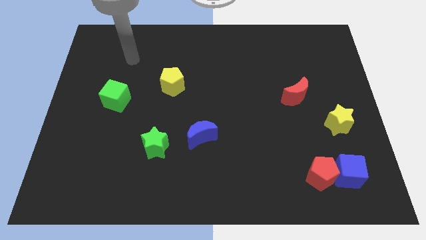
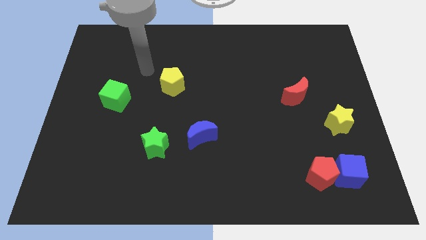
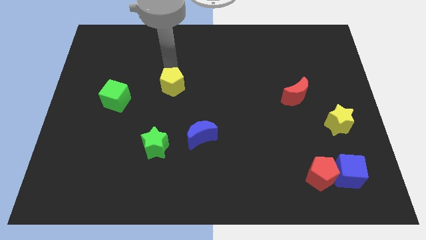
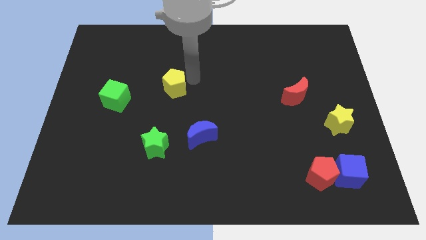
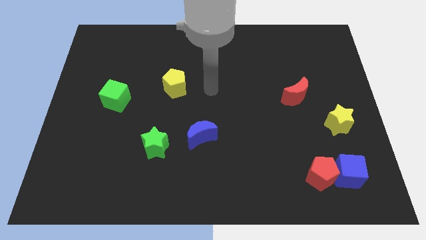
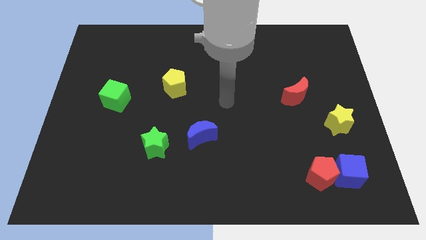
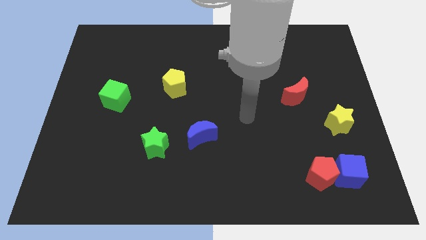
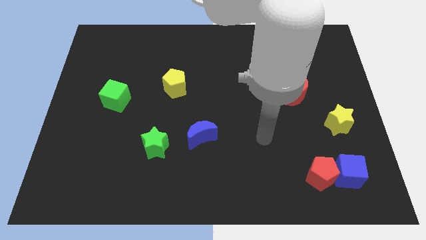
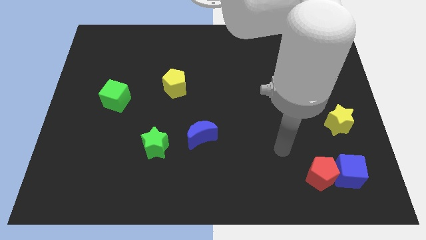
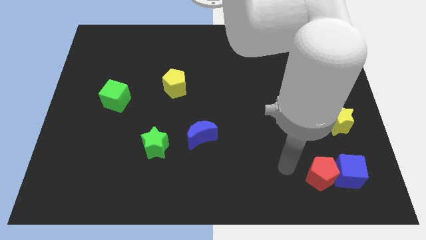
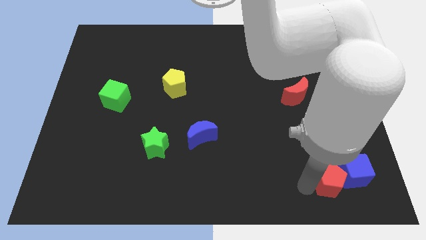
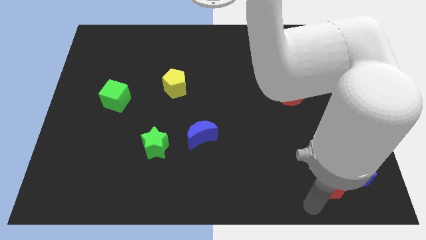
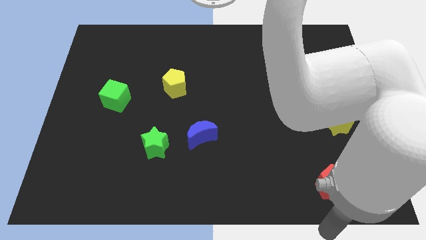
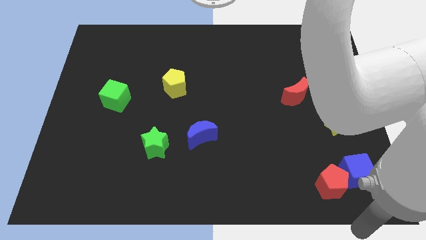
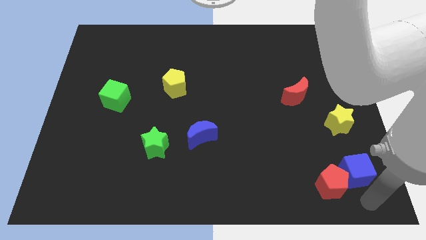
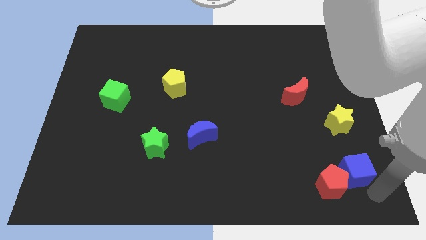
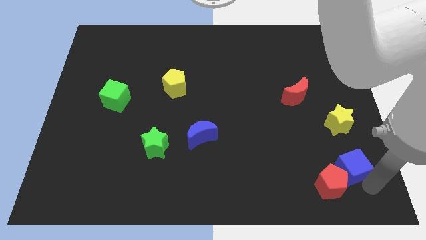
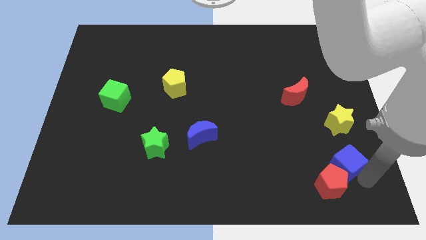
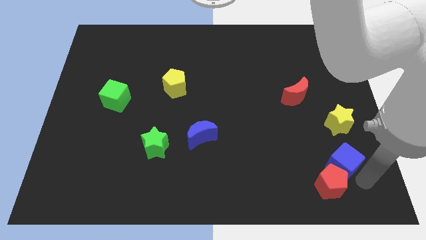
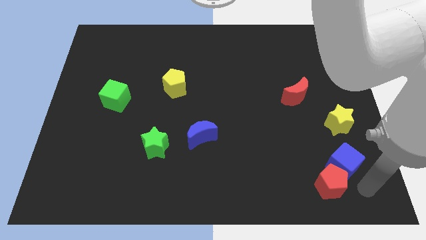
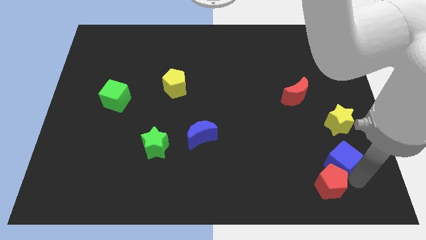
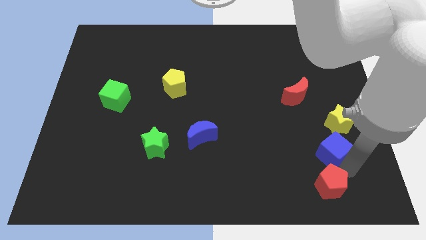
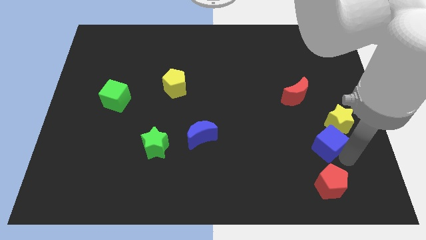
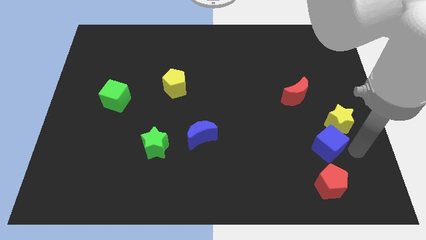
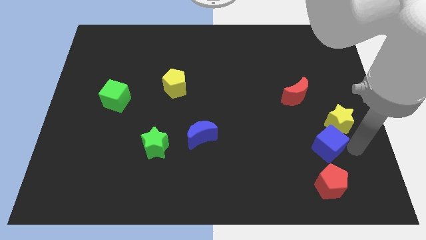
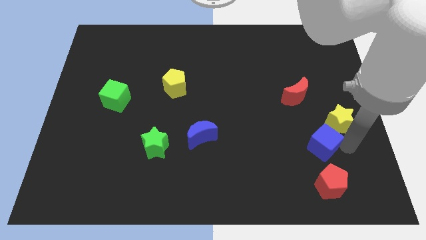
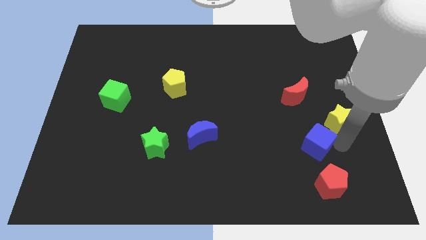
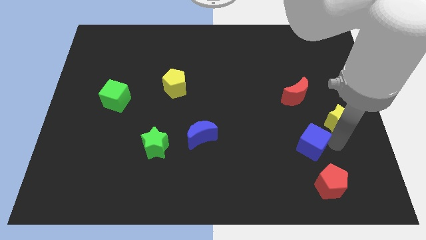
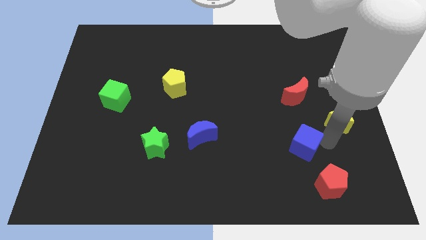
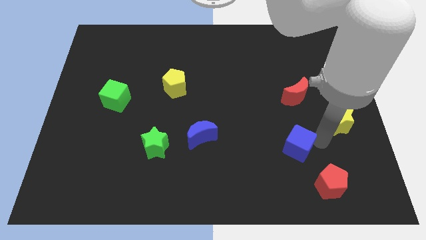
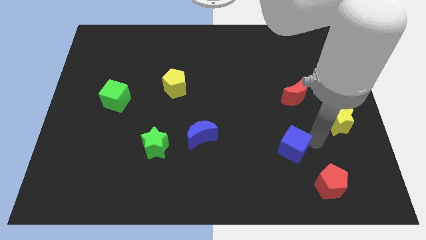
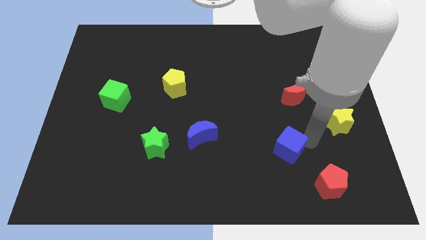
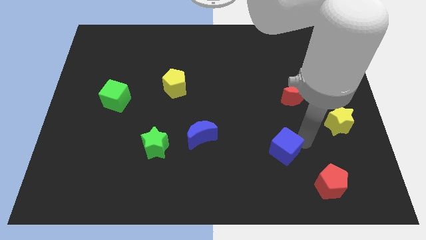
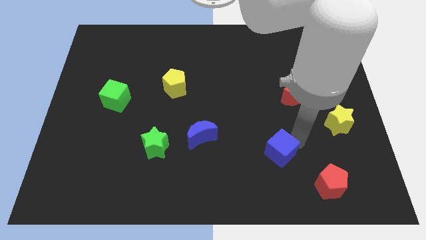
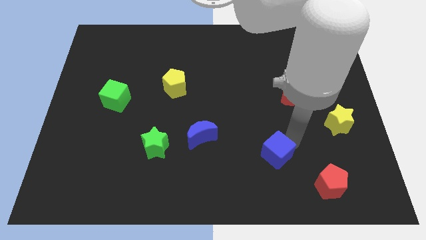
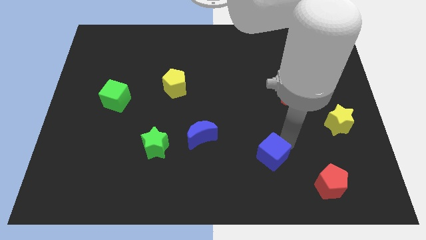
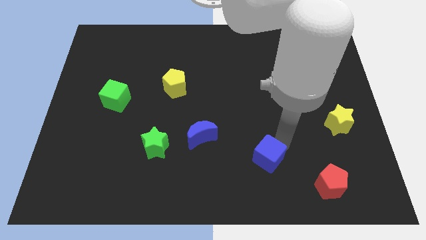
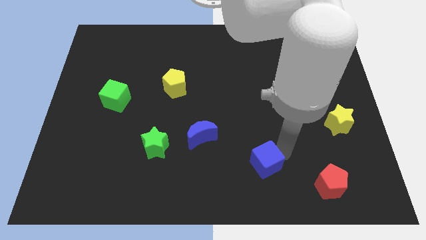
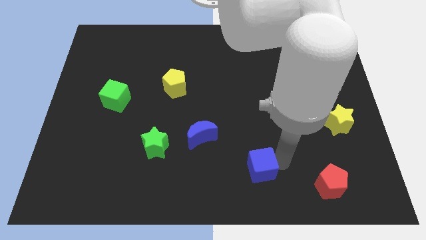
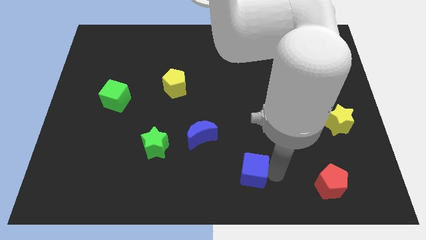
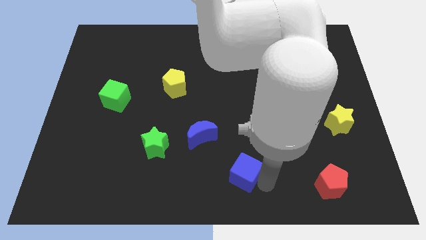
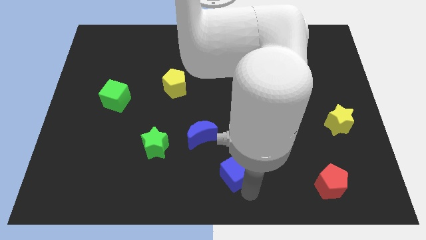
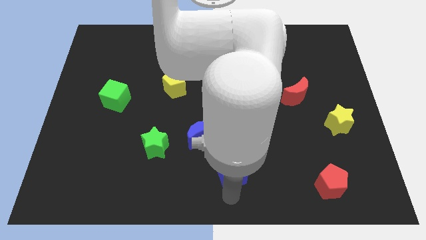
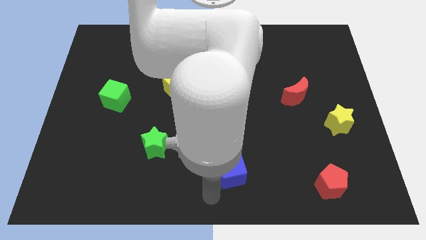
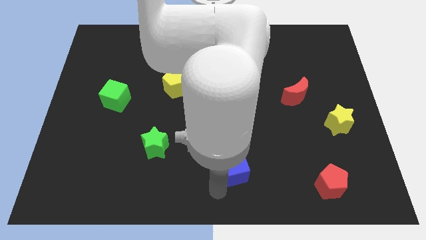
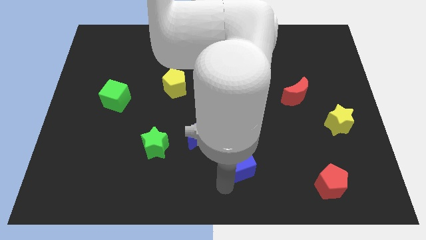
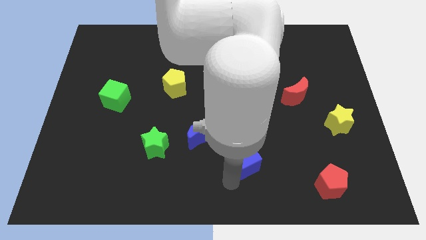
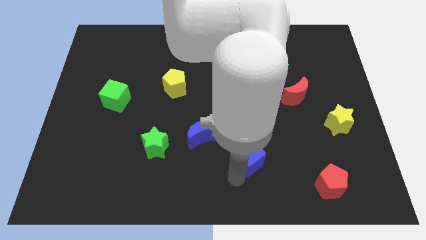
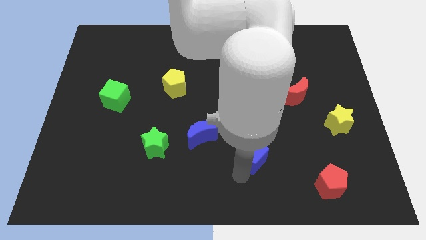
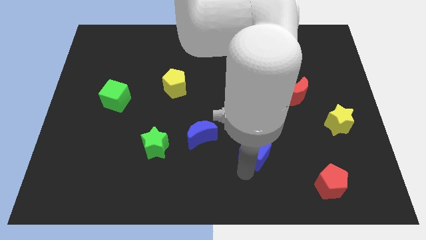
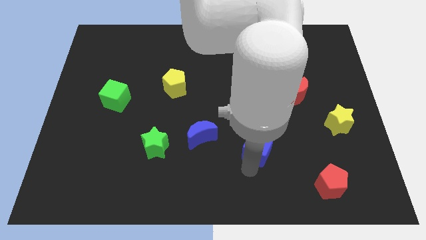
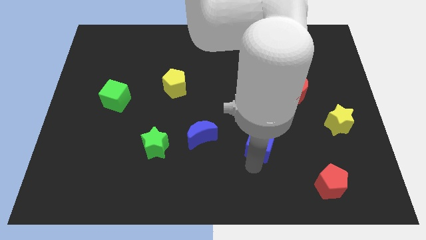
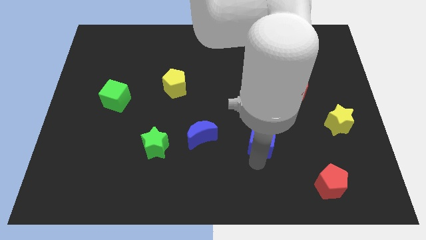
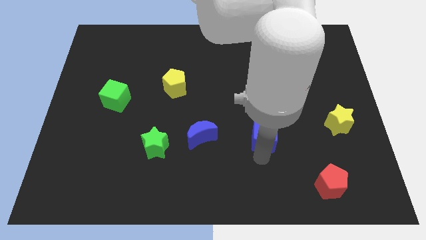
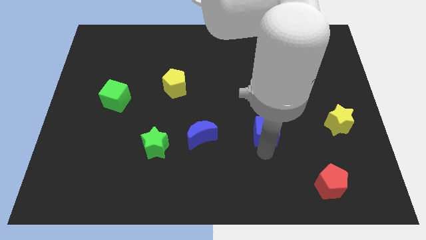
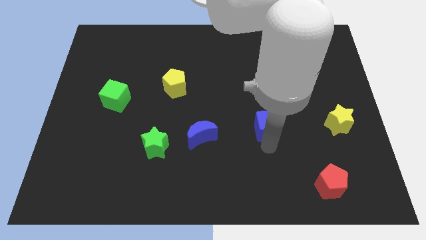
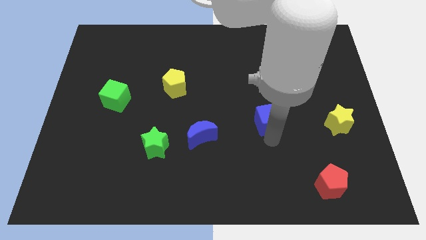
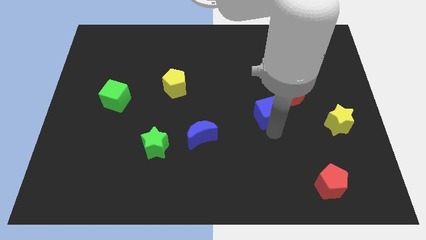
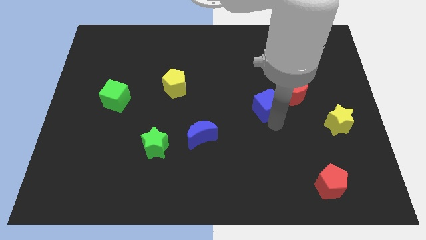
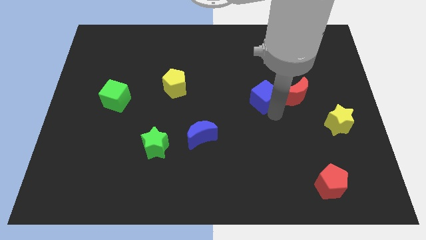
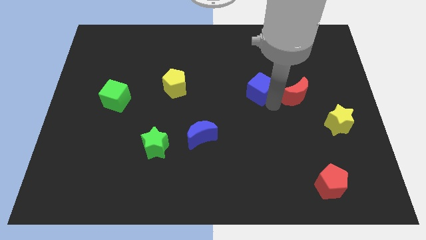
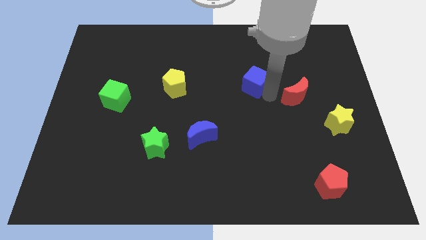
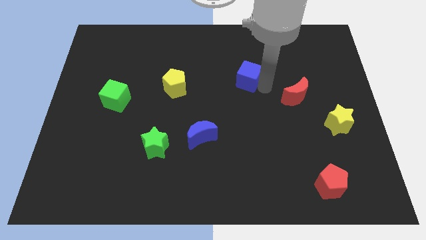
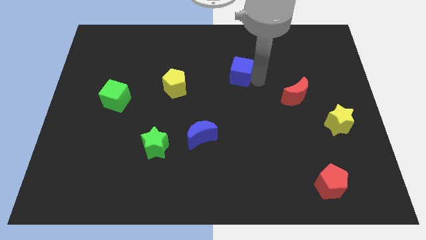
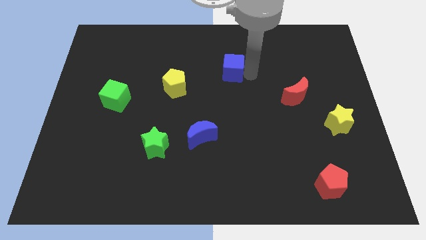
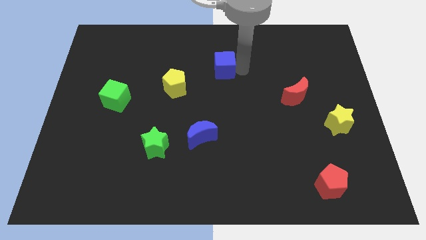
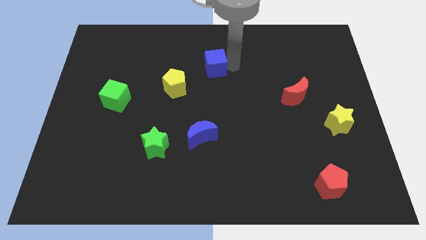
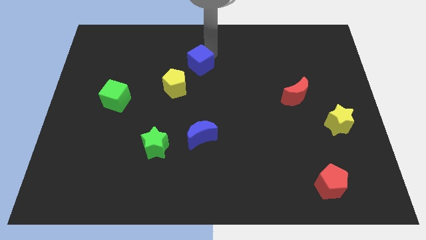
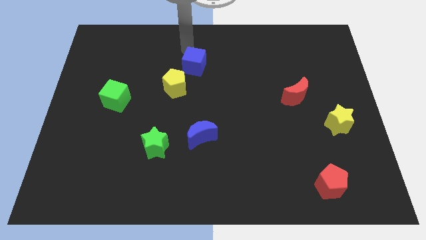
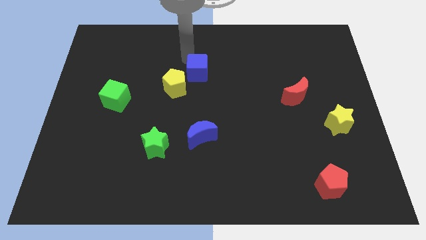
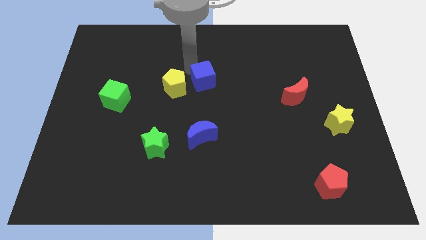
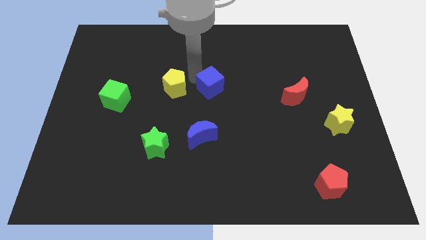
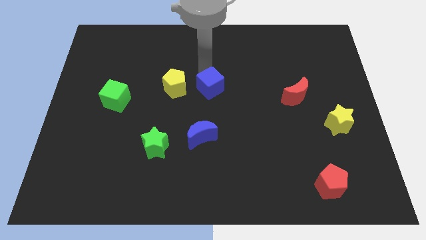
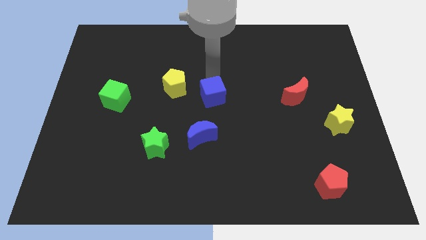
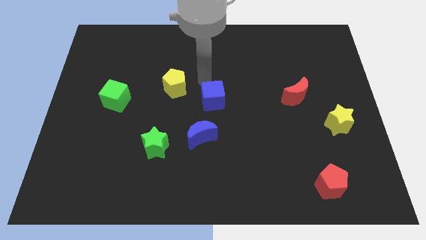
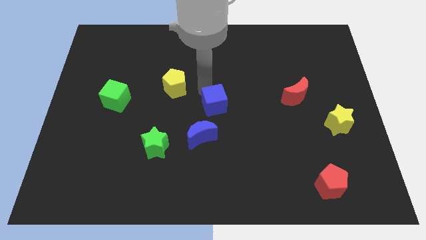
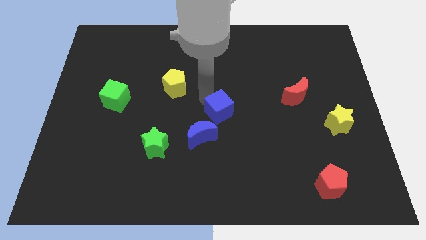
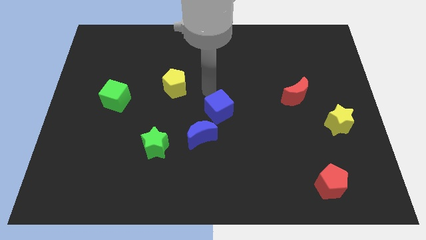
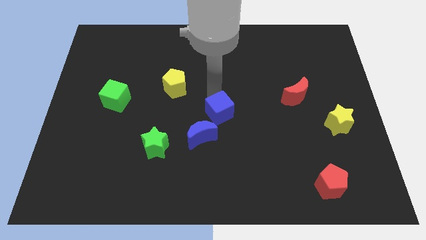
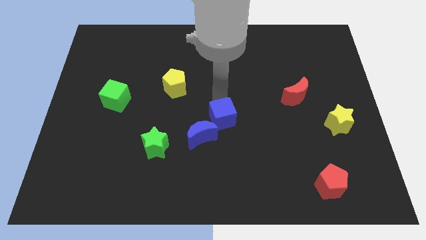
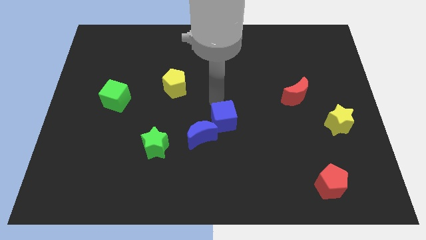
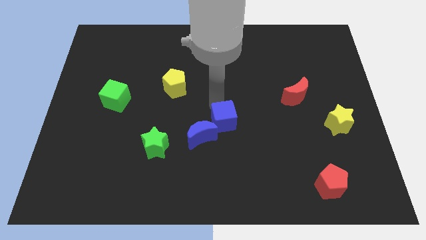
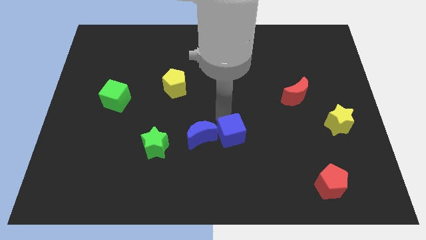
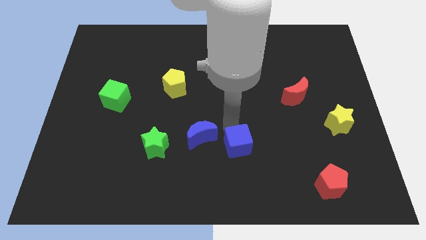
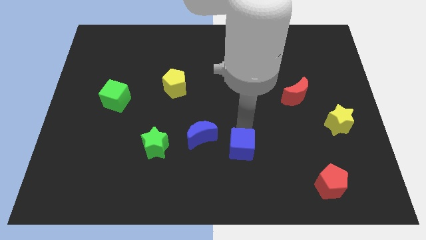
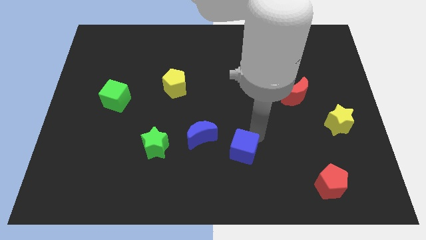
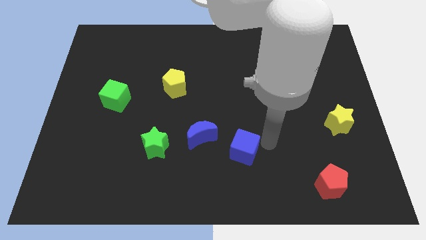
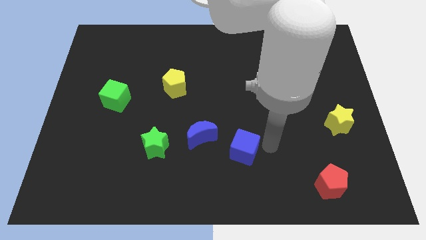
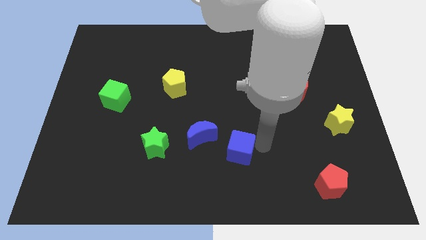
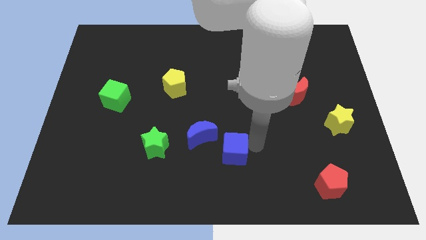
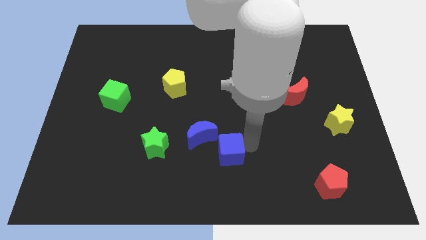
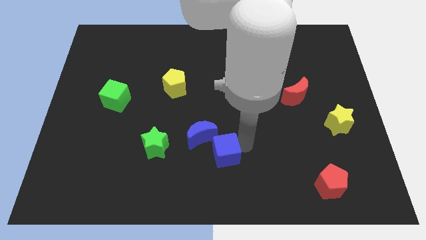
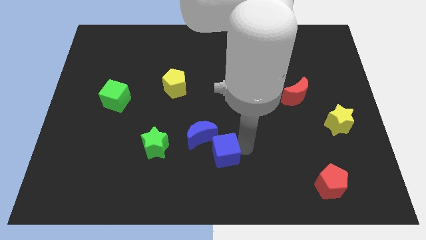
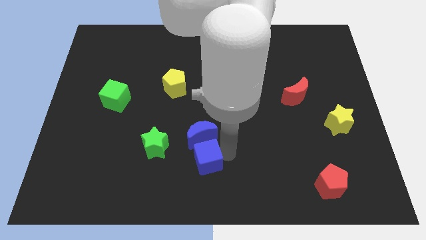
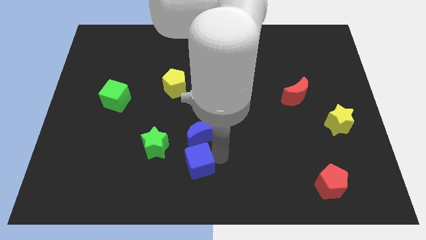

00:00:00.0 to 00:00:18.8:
push the blue cube diagonally down and to the right of the green star
